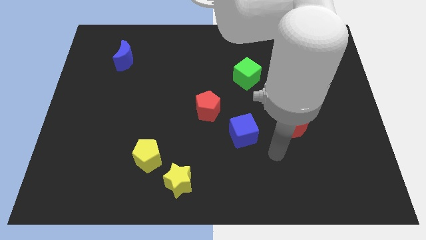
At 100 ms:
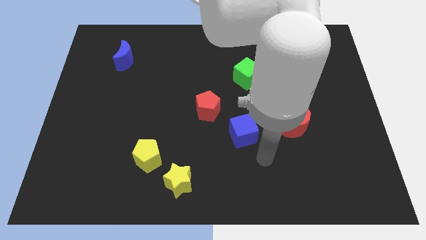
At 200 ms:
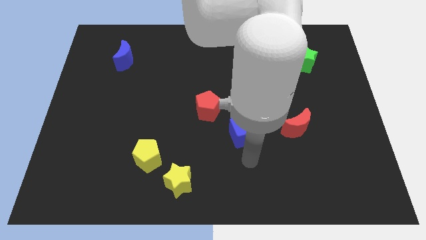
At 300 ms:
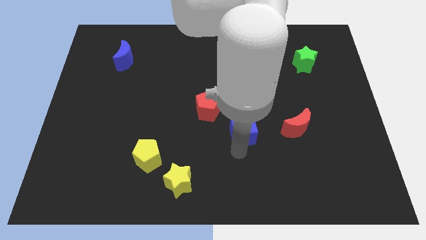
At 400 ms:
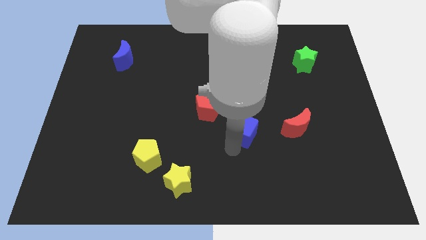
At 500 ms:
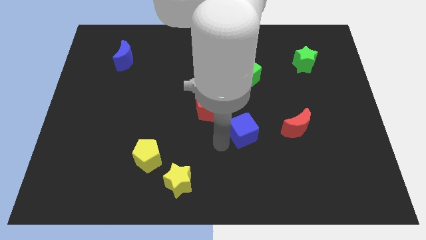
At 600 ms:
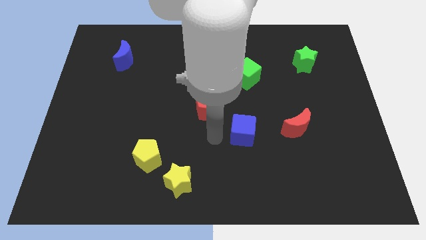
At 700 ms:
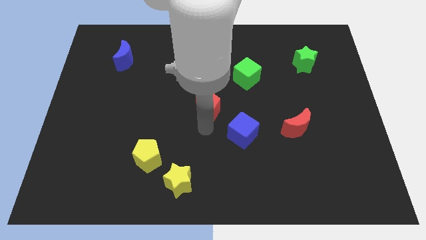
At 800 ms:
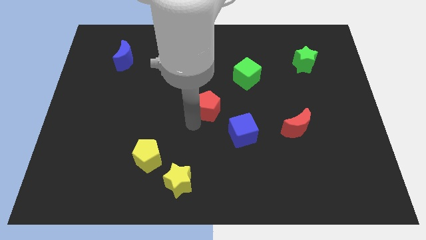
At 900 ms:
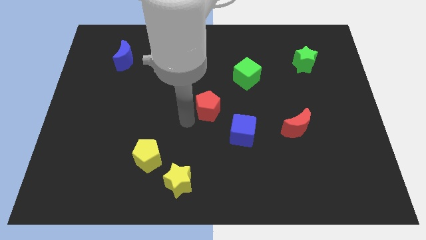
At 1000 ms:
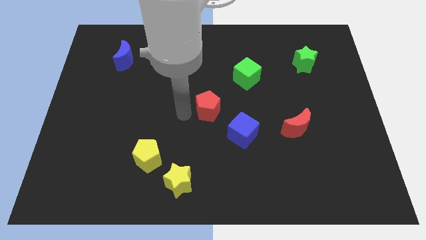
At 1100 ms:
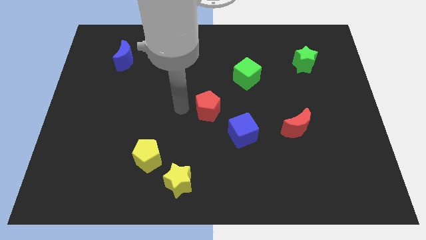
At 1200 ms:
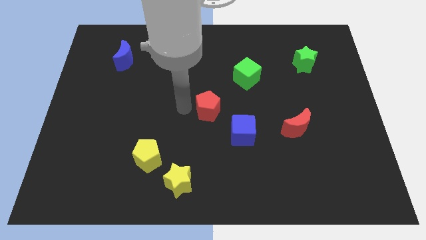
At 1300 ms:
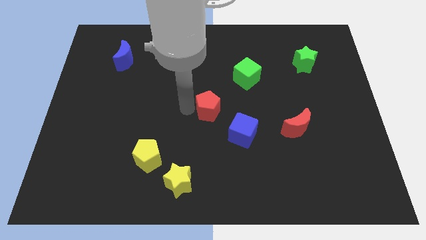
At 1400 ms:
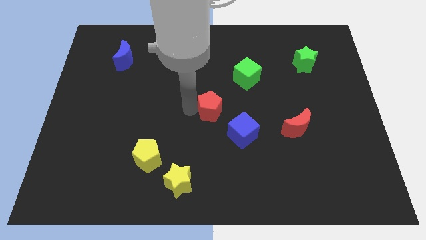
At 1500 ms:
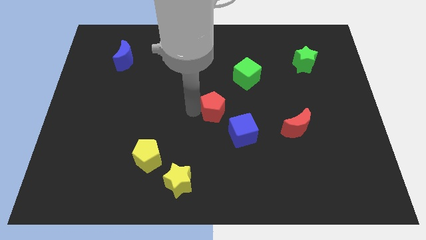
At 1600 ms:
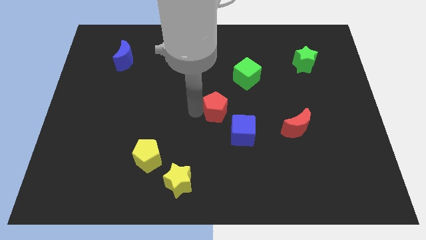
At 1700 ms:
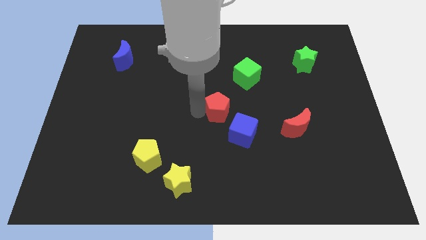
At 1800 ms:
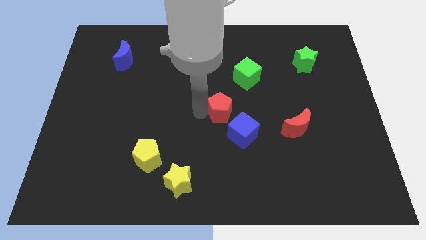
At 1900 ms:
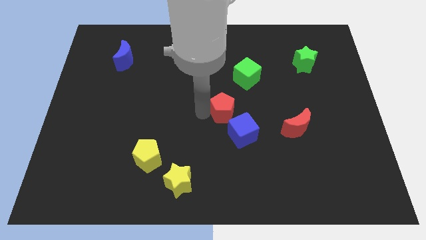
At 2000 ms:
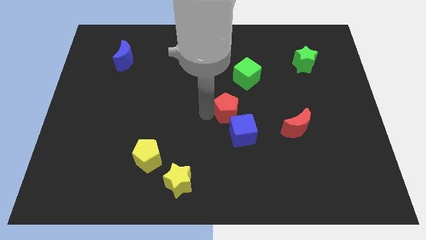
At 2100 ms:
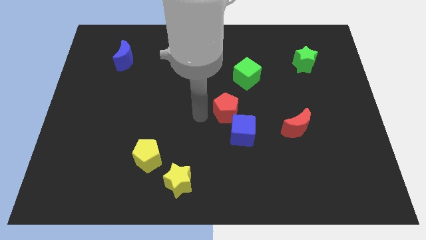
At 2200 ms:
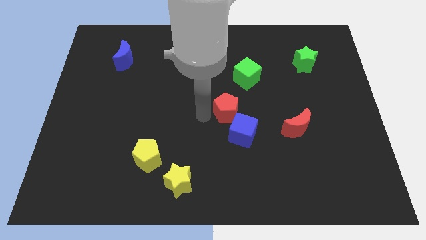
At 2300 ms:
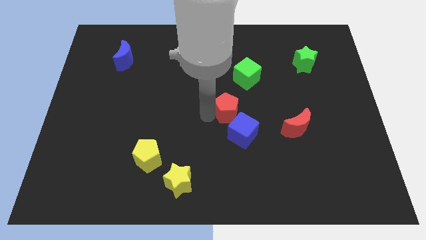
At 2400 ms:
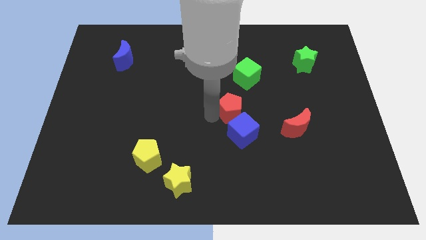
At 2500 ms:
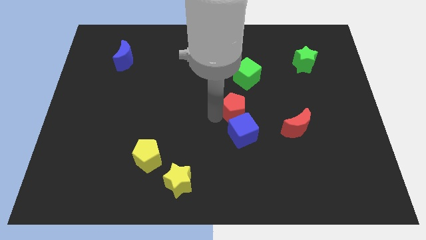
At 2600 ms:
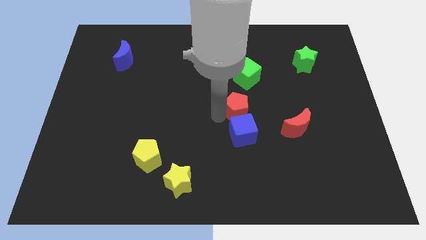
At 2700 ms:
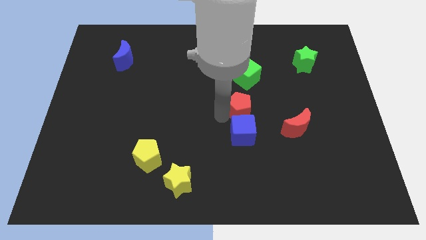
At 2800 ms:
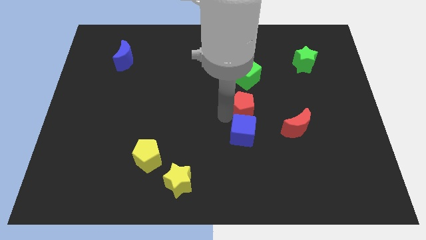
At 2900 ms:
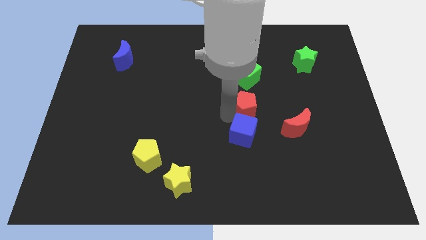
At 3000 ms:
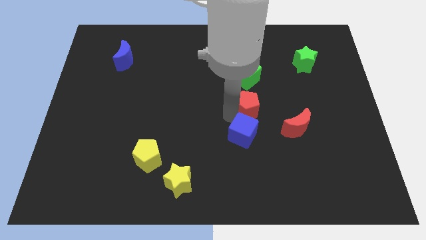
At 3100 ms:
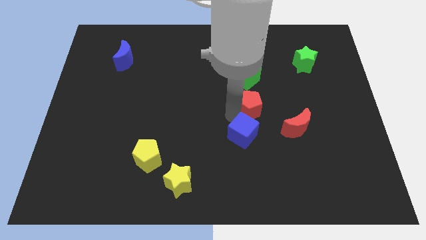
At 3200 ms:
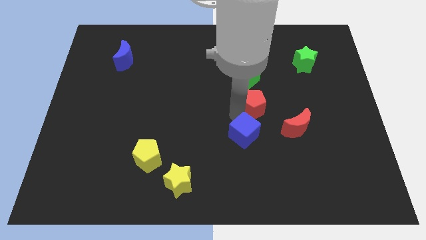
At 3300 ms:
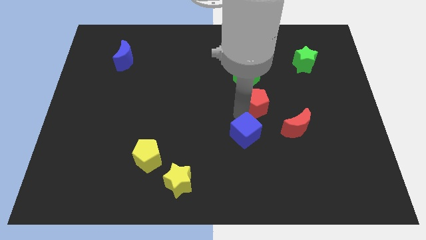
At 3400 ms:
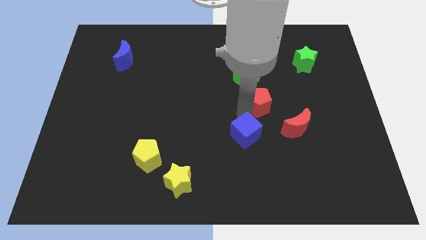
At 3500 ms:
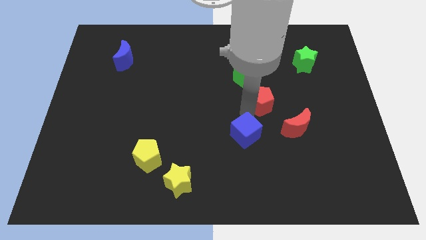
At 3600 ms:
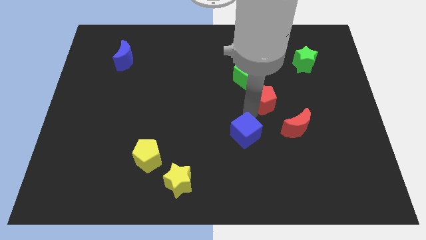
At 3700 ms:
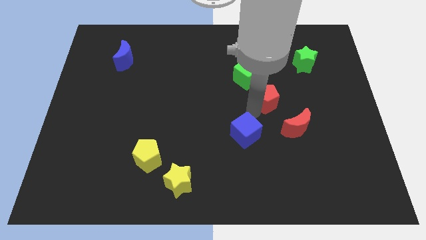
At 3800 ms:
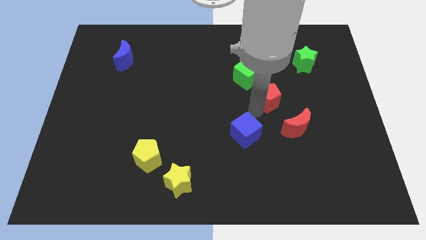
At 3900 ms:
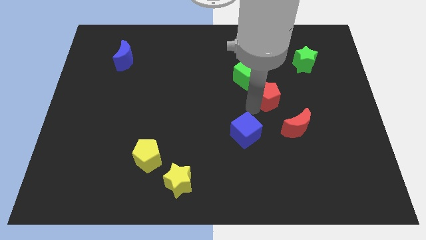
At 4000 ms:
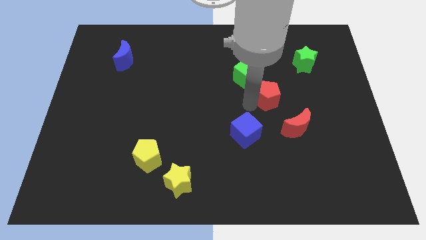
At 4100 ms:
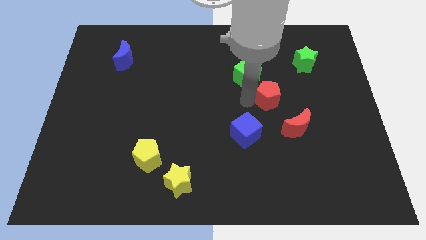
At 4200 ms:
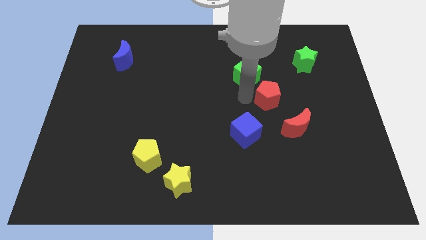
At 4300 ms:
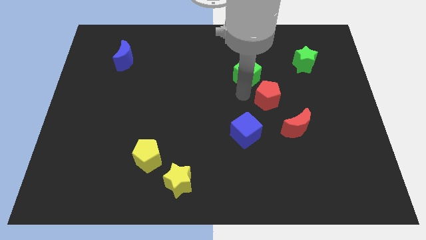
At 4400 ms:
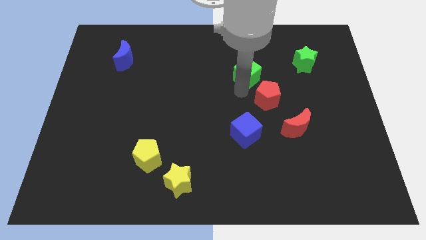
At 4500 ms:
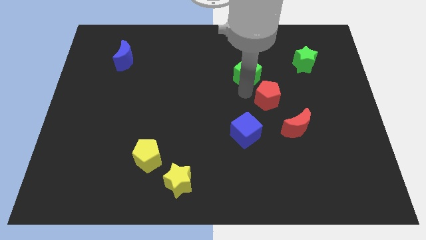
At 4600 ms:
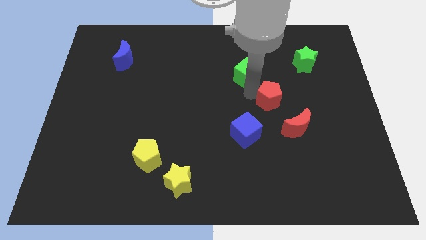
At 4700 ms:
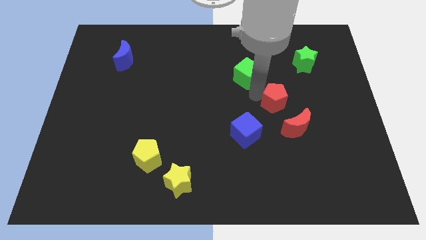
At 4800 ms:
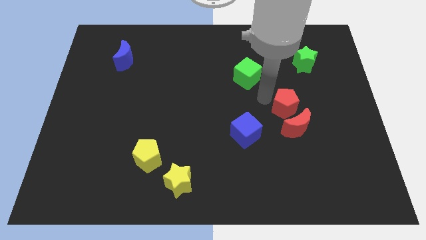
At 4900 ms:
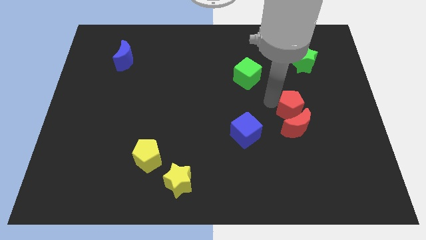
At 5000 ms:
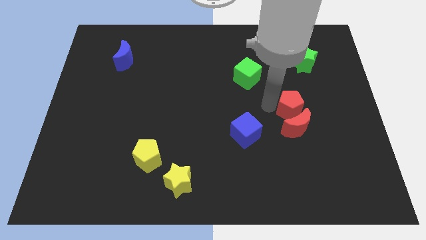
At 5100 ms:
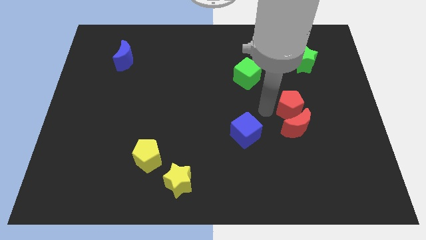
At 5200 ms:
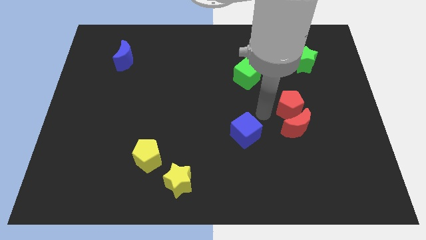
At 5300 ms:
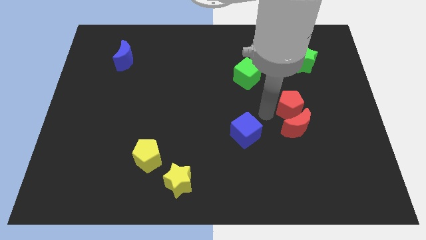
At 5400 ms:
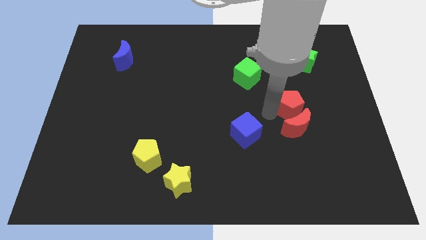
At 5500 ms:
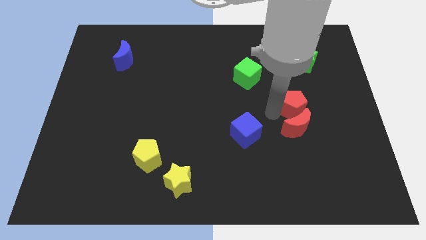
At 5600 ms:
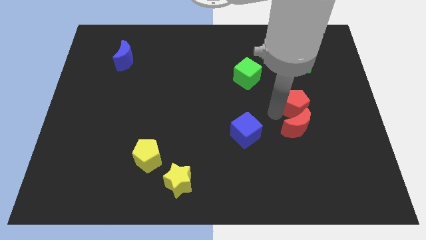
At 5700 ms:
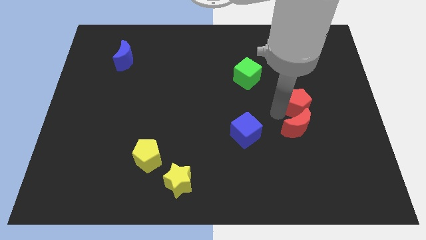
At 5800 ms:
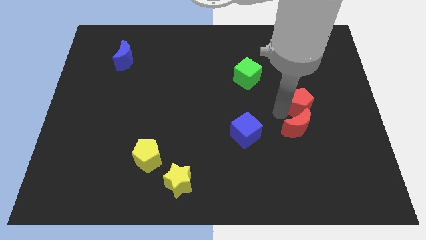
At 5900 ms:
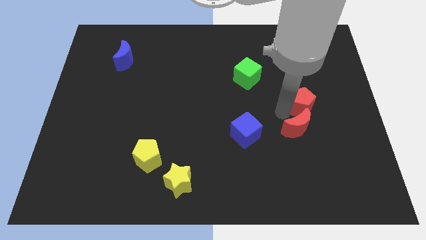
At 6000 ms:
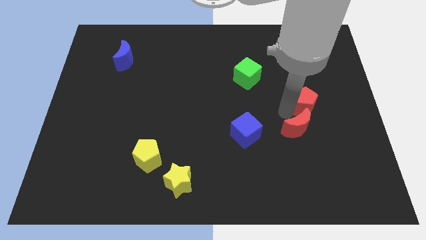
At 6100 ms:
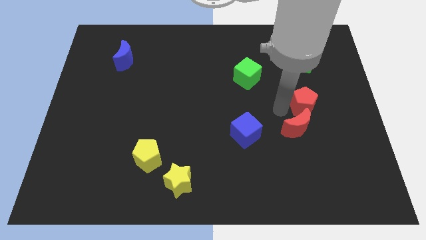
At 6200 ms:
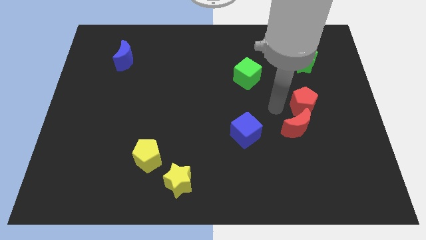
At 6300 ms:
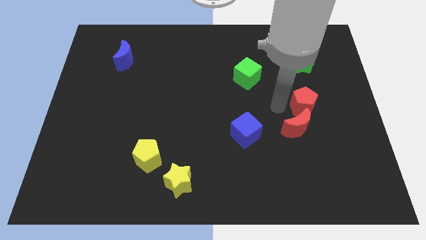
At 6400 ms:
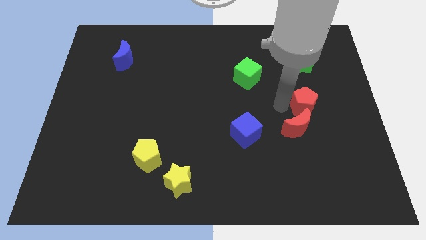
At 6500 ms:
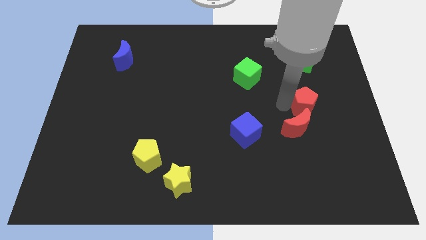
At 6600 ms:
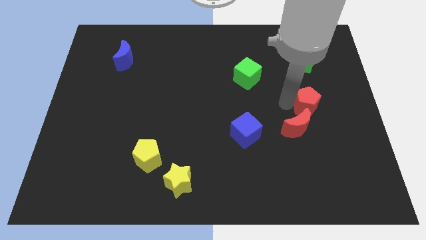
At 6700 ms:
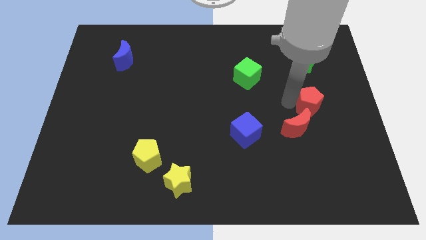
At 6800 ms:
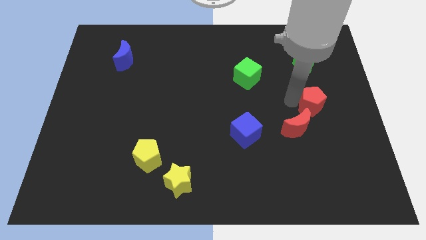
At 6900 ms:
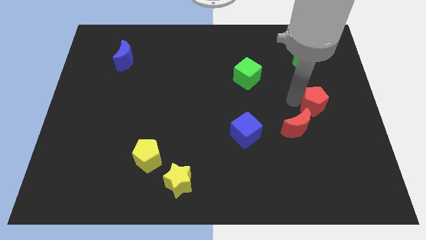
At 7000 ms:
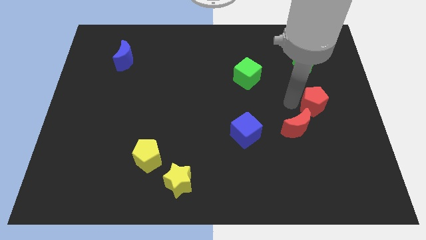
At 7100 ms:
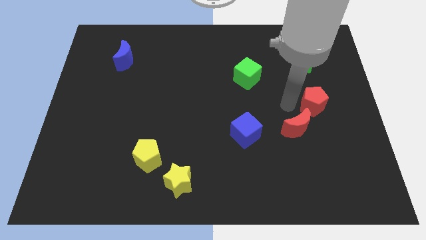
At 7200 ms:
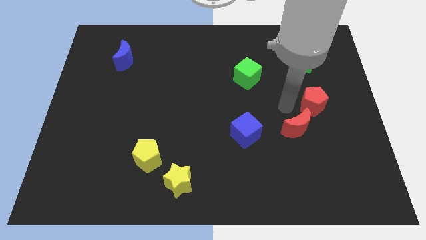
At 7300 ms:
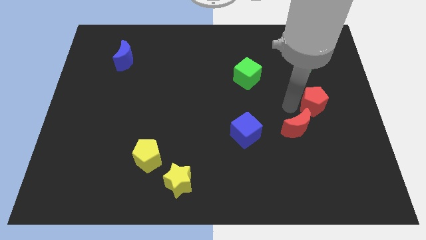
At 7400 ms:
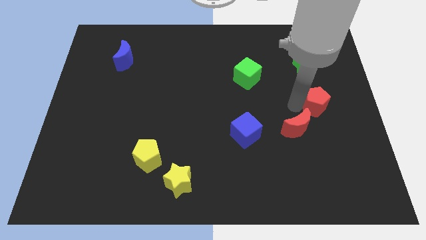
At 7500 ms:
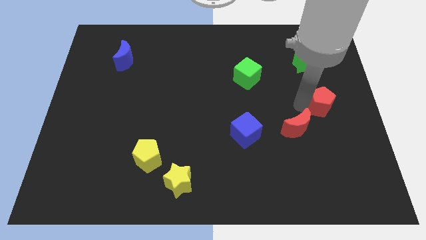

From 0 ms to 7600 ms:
push the red pentagon to the center right
